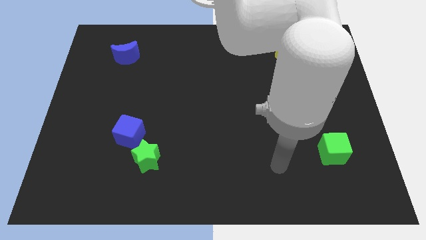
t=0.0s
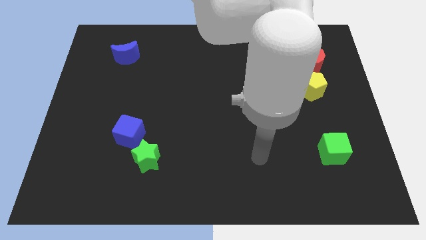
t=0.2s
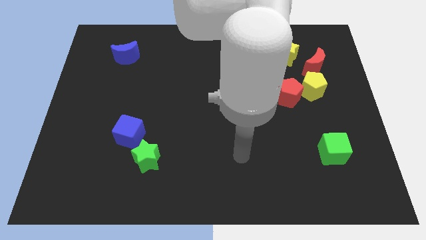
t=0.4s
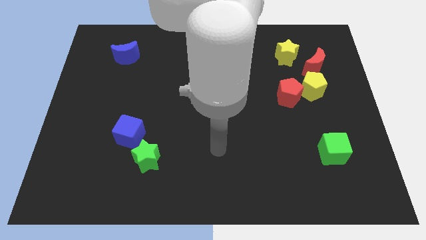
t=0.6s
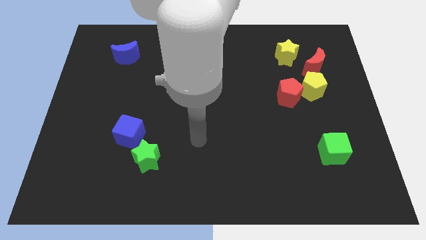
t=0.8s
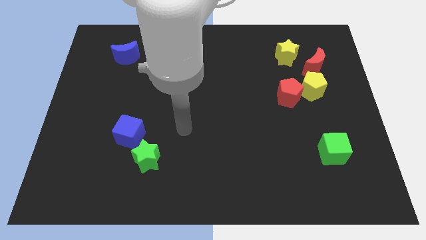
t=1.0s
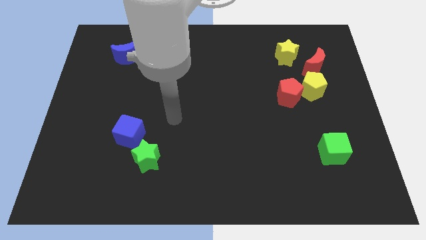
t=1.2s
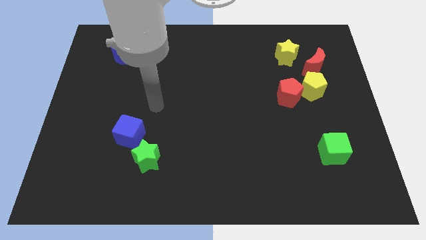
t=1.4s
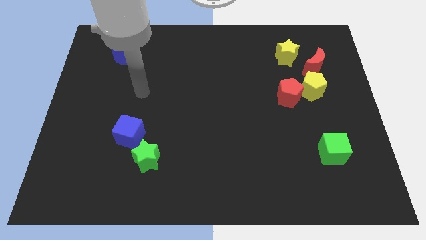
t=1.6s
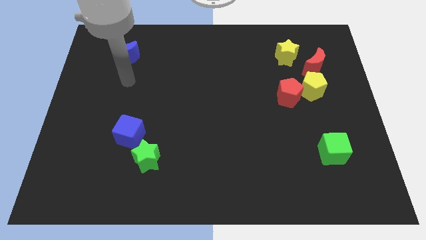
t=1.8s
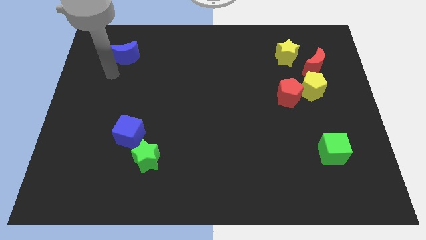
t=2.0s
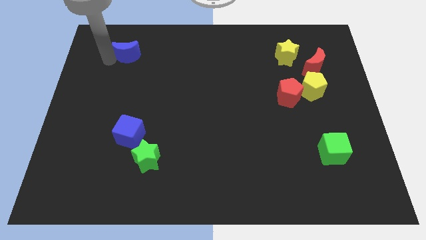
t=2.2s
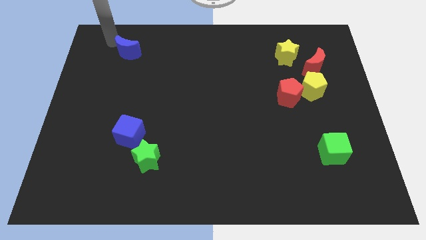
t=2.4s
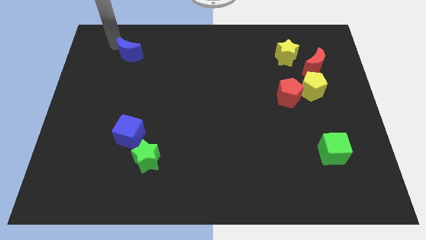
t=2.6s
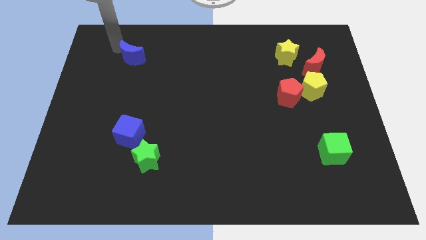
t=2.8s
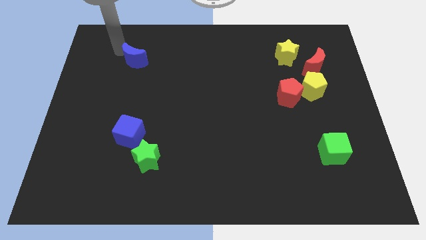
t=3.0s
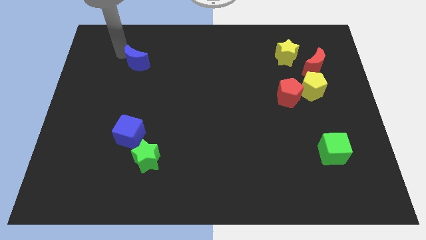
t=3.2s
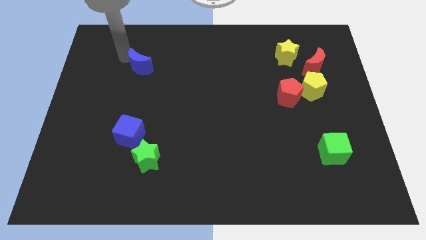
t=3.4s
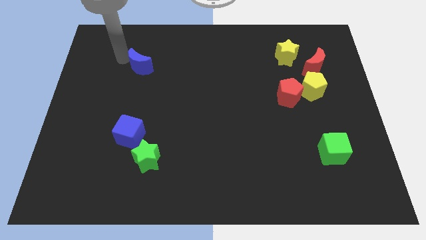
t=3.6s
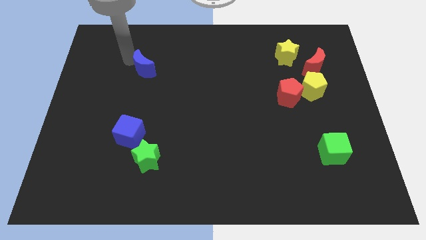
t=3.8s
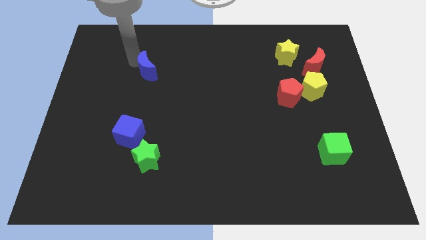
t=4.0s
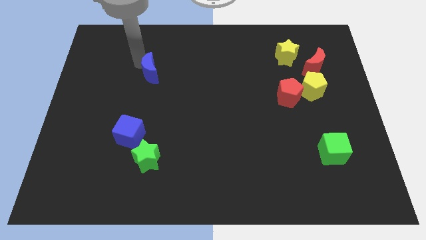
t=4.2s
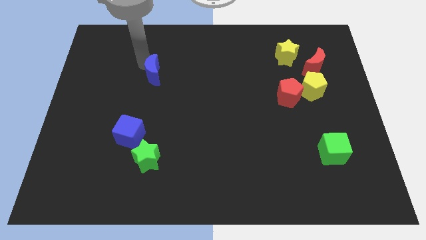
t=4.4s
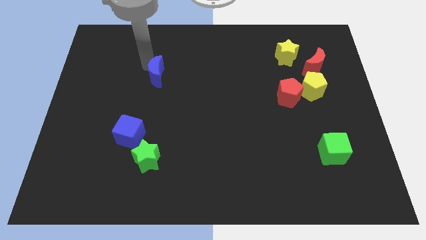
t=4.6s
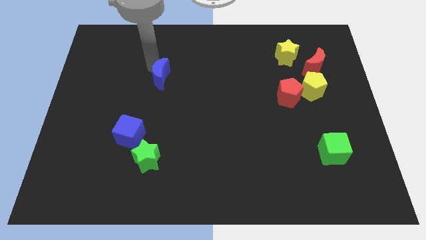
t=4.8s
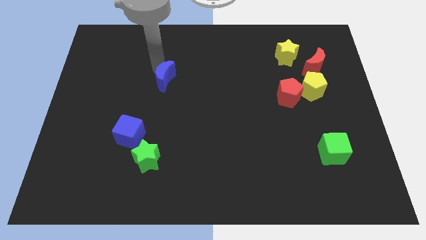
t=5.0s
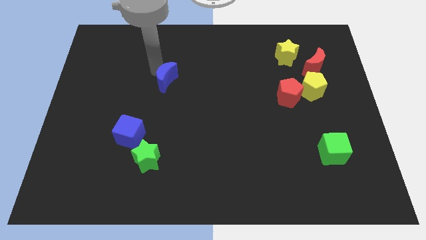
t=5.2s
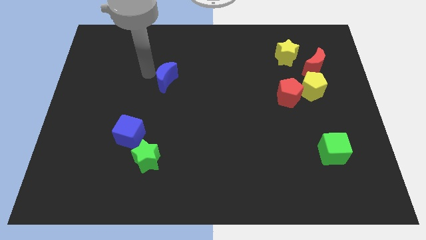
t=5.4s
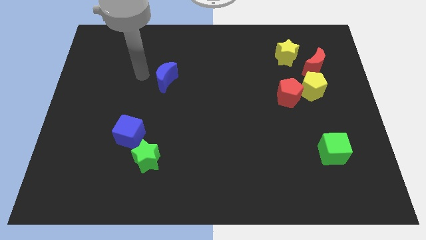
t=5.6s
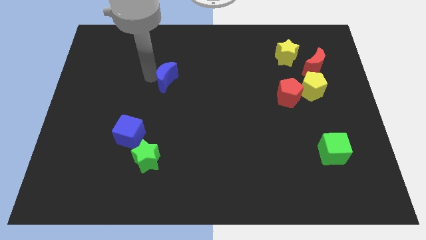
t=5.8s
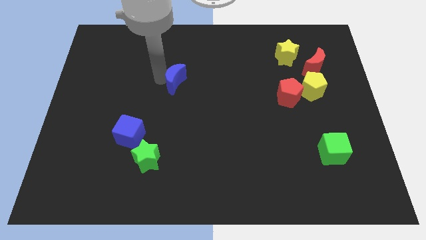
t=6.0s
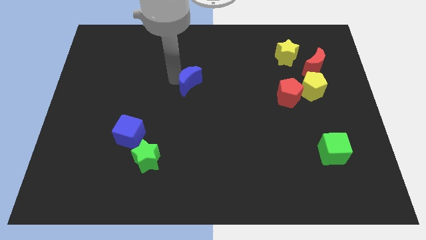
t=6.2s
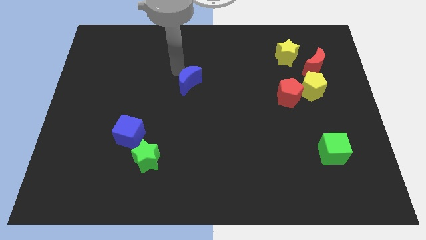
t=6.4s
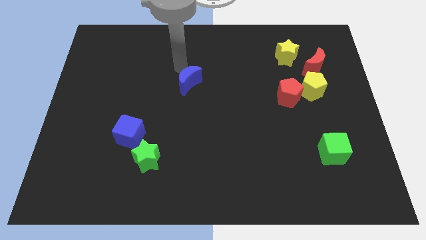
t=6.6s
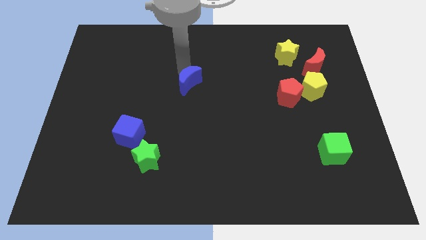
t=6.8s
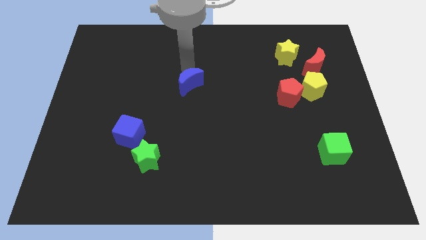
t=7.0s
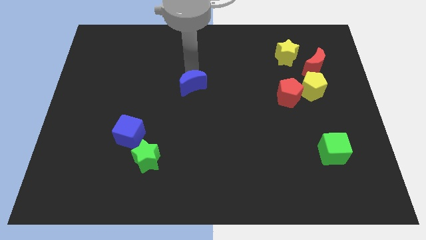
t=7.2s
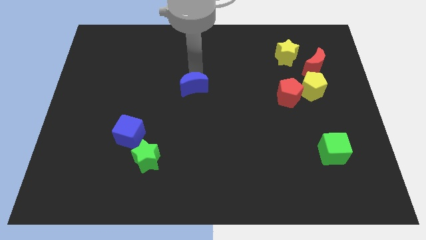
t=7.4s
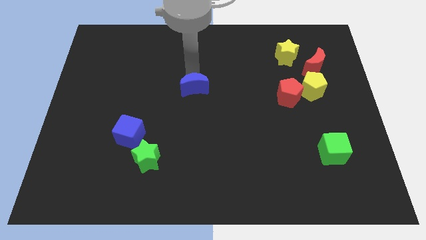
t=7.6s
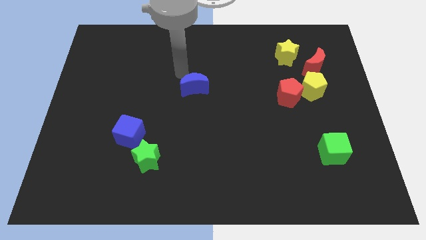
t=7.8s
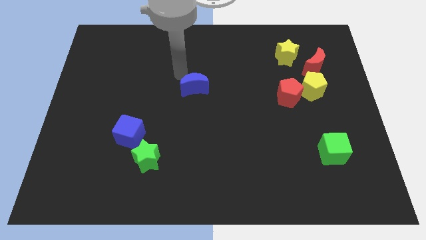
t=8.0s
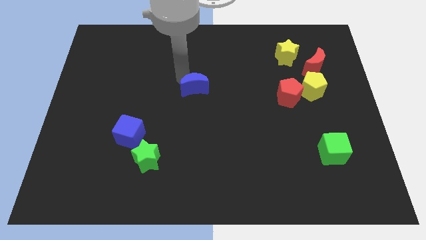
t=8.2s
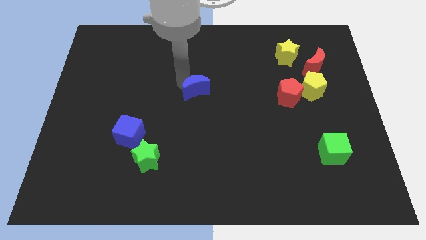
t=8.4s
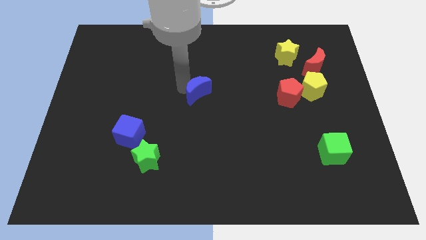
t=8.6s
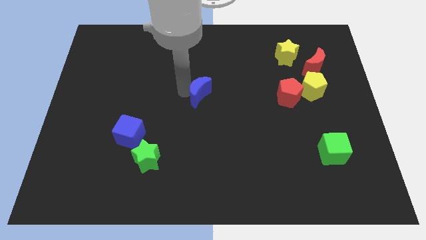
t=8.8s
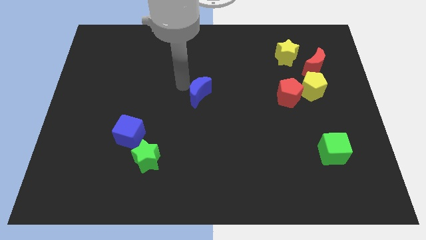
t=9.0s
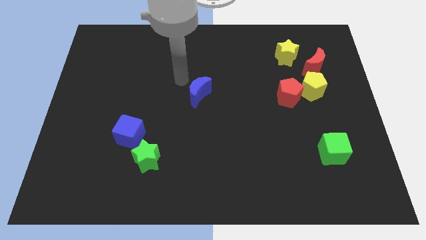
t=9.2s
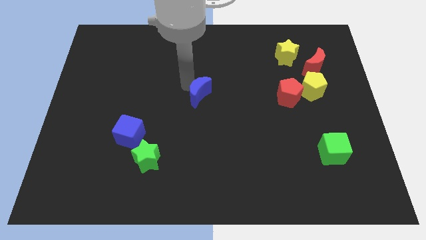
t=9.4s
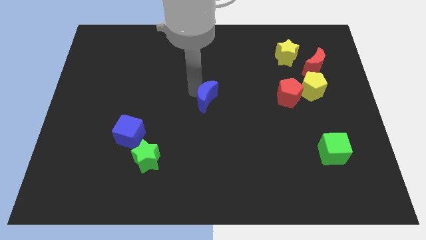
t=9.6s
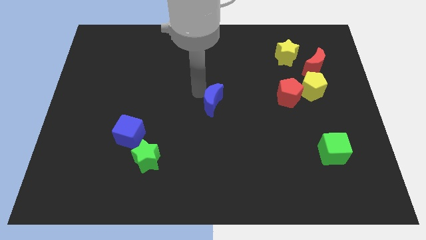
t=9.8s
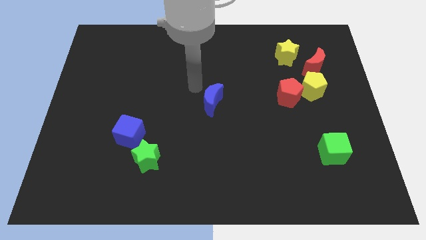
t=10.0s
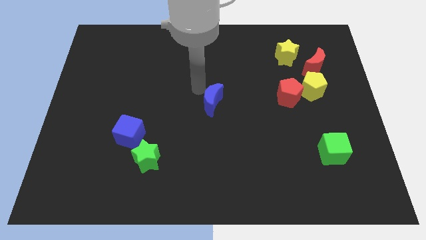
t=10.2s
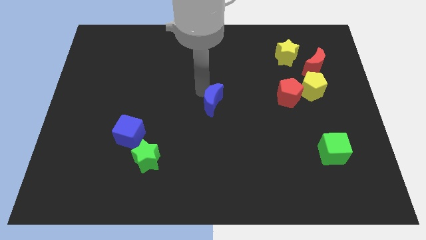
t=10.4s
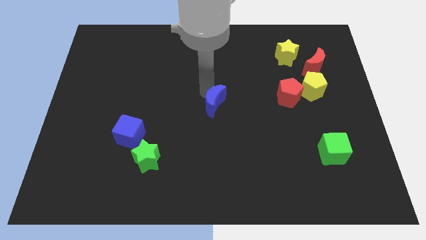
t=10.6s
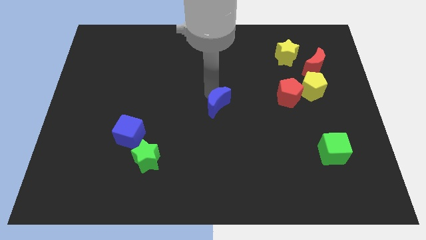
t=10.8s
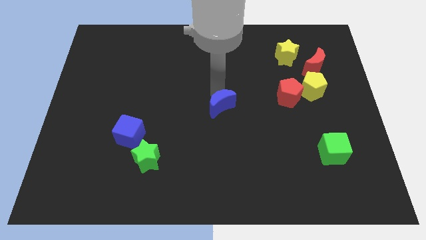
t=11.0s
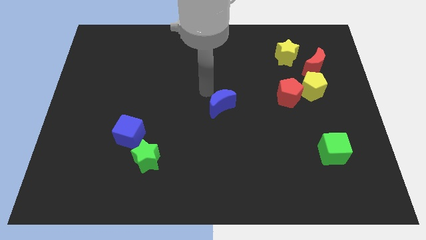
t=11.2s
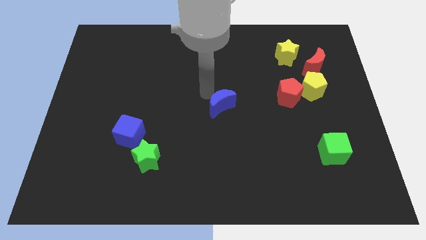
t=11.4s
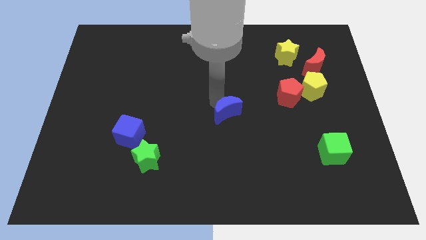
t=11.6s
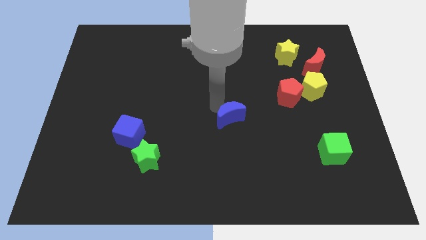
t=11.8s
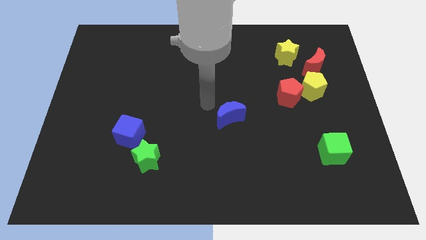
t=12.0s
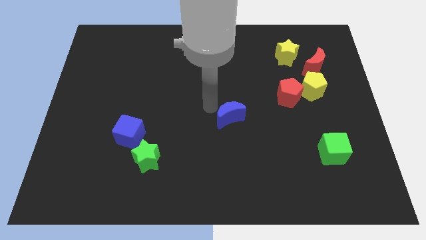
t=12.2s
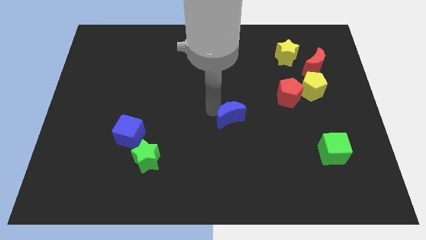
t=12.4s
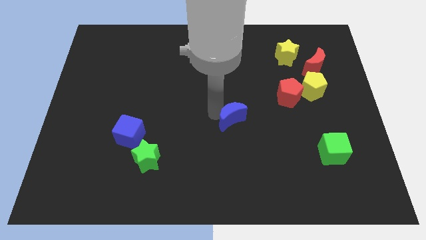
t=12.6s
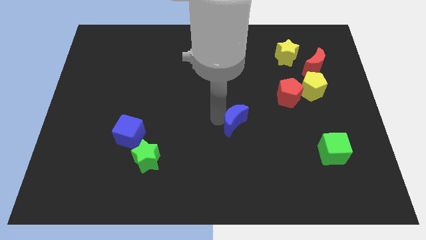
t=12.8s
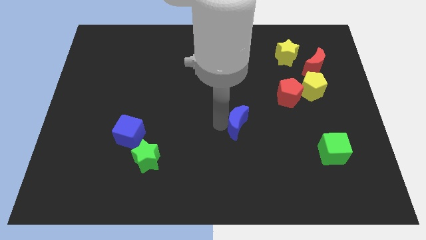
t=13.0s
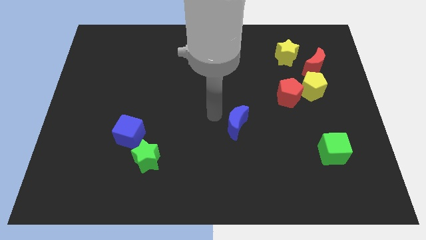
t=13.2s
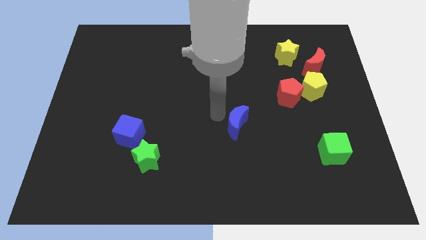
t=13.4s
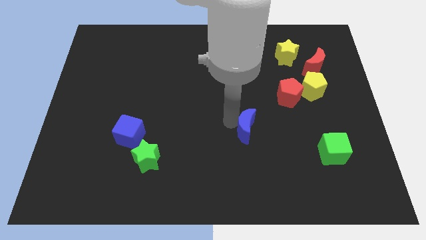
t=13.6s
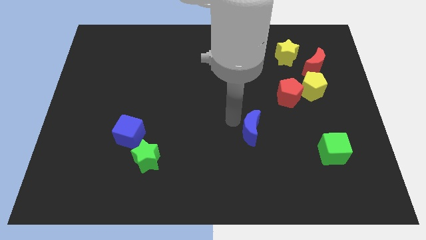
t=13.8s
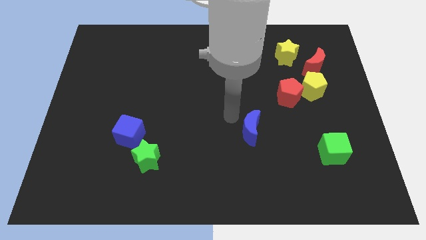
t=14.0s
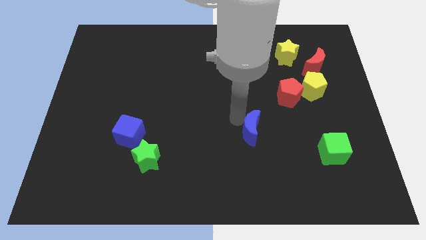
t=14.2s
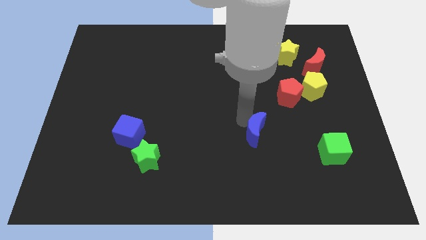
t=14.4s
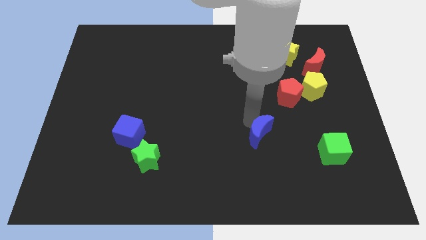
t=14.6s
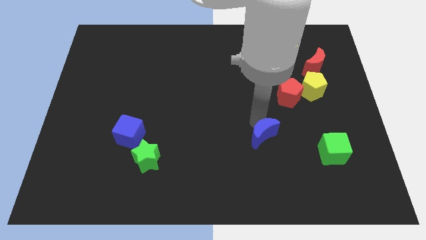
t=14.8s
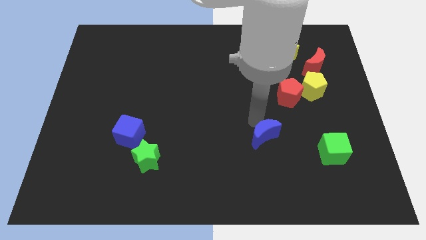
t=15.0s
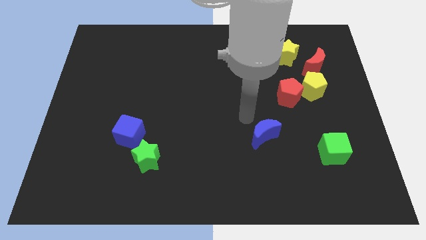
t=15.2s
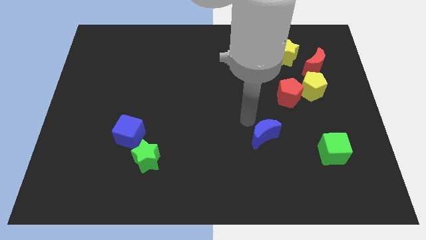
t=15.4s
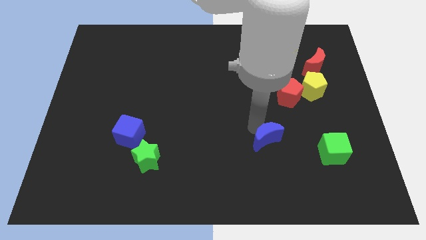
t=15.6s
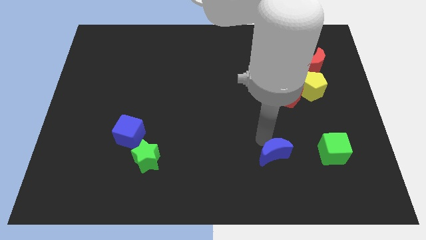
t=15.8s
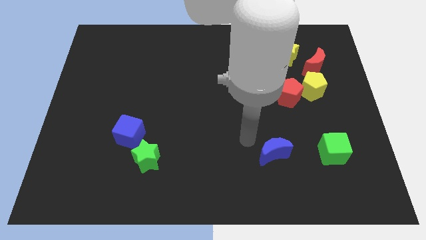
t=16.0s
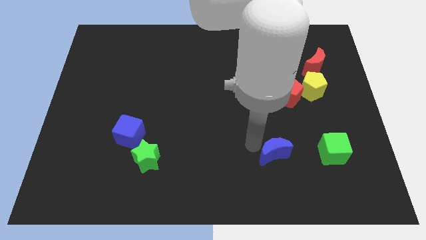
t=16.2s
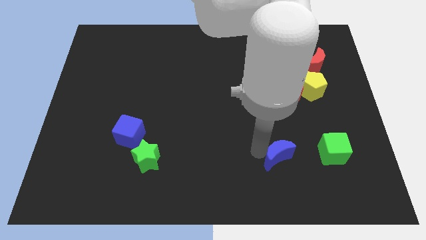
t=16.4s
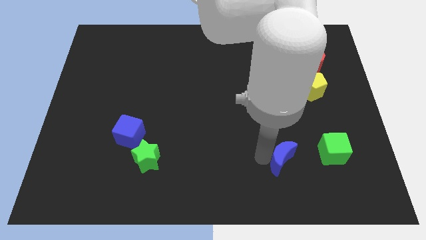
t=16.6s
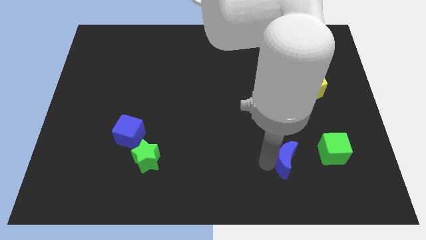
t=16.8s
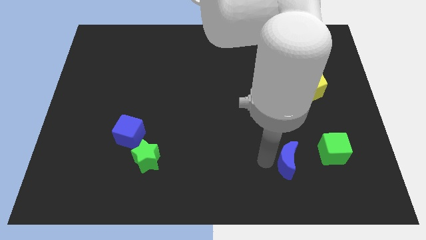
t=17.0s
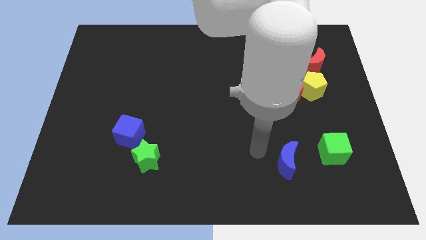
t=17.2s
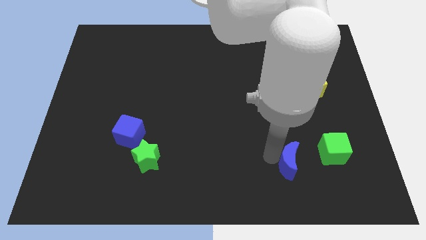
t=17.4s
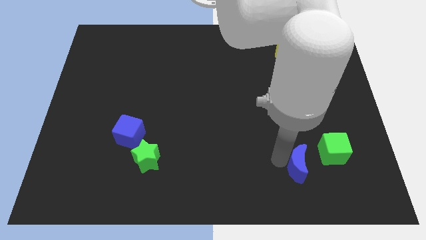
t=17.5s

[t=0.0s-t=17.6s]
push the blue moon to the bottom left side of the green cube
